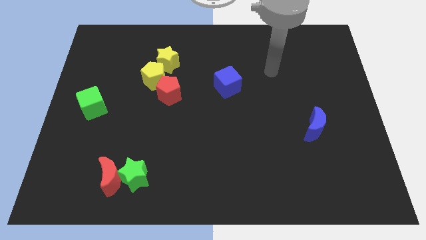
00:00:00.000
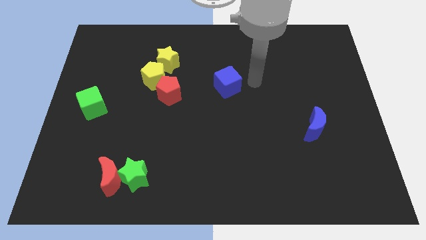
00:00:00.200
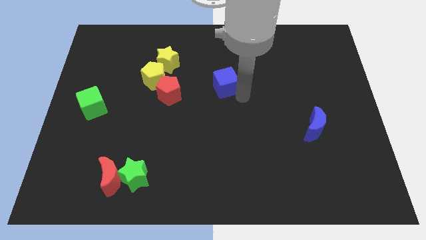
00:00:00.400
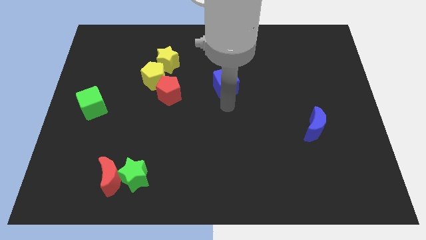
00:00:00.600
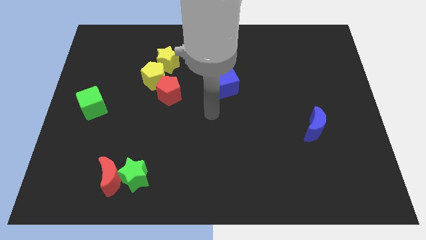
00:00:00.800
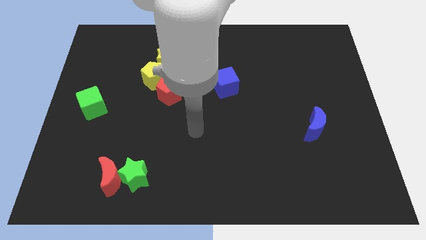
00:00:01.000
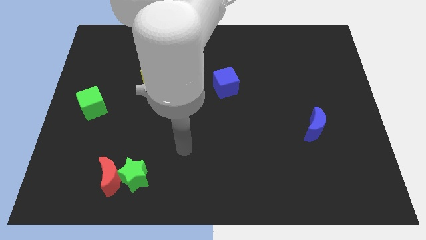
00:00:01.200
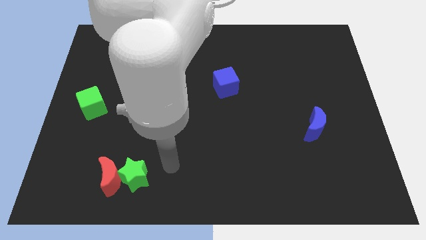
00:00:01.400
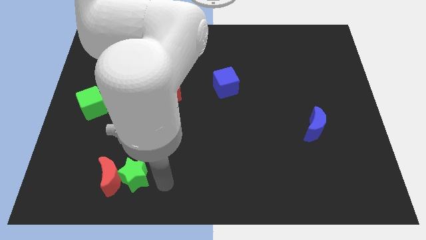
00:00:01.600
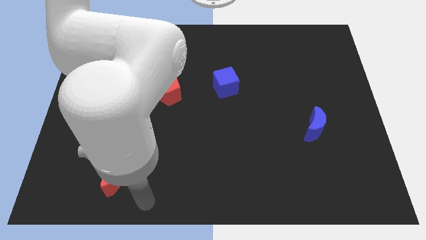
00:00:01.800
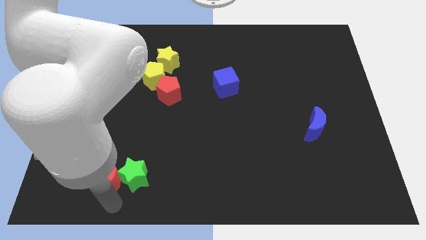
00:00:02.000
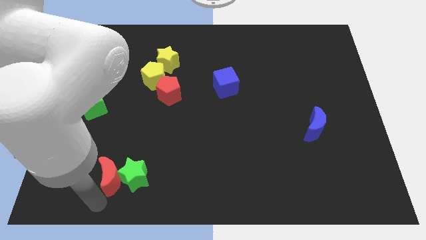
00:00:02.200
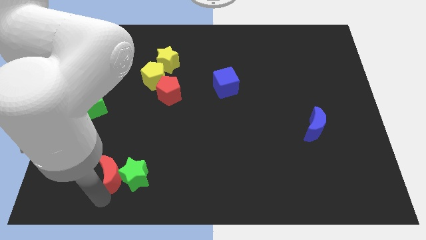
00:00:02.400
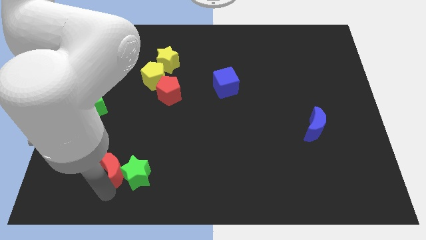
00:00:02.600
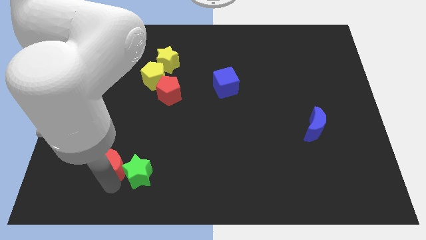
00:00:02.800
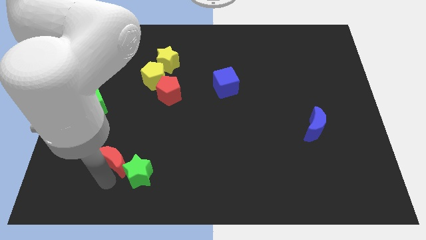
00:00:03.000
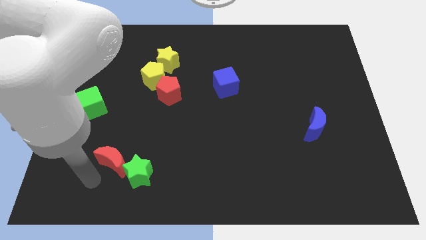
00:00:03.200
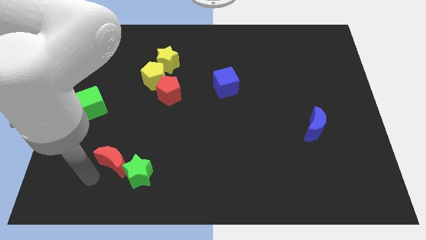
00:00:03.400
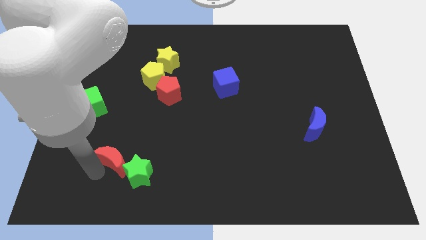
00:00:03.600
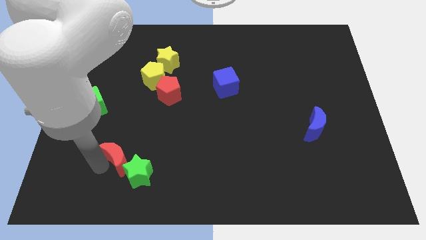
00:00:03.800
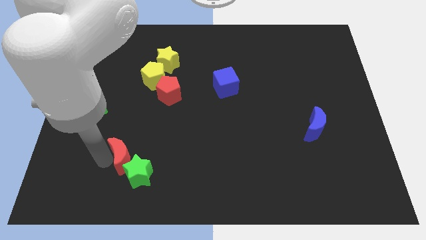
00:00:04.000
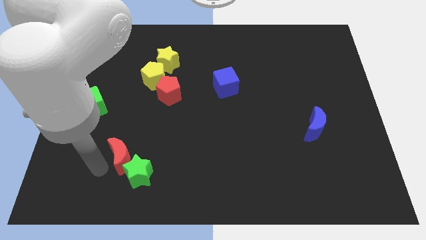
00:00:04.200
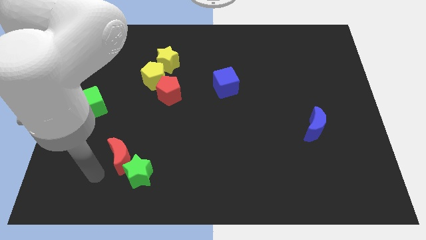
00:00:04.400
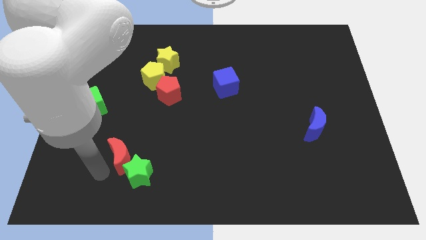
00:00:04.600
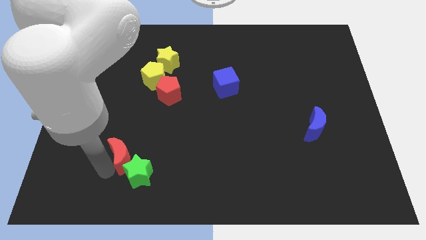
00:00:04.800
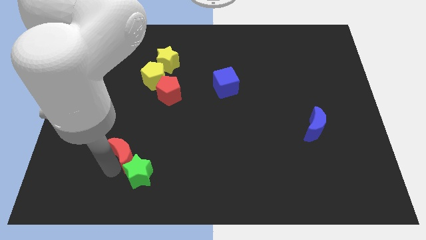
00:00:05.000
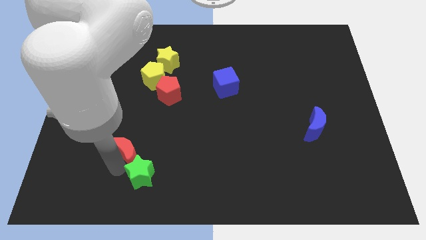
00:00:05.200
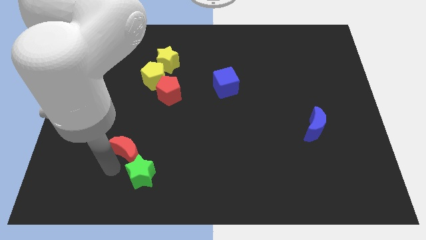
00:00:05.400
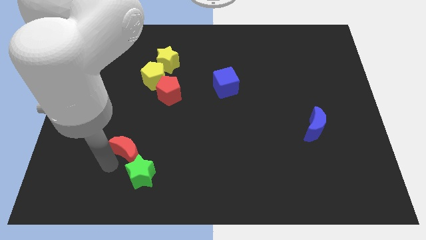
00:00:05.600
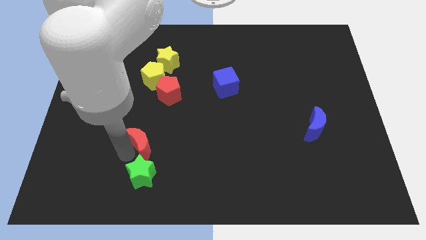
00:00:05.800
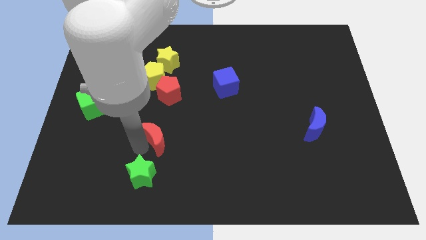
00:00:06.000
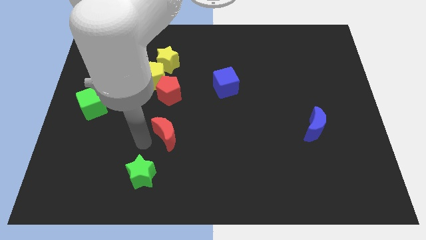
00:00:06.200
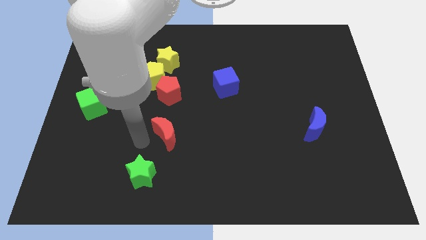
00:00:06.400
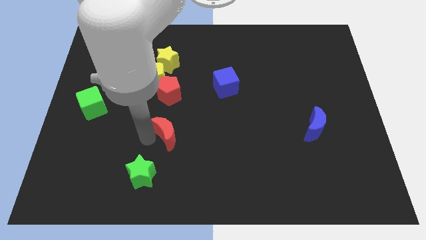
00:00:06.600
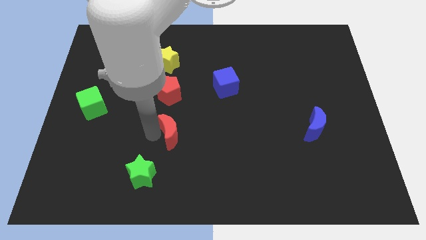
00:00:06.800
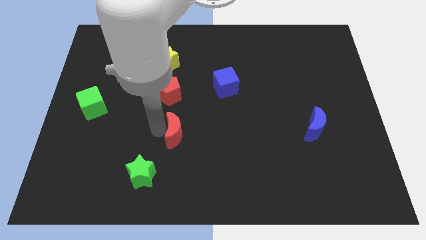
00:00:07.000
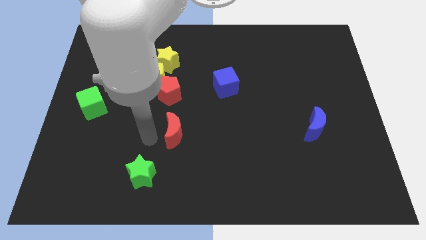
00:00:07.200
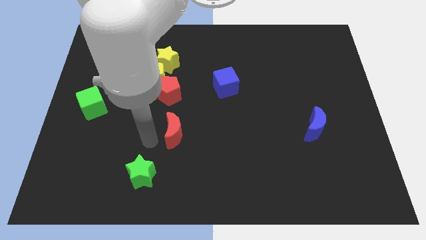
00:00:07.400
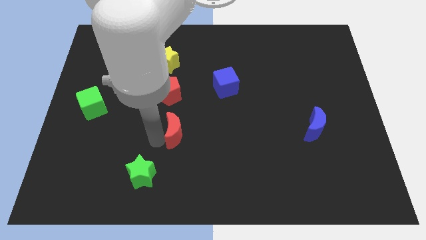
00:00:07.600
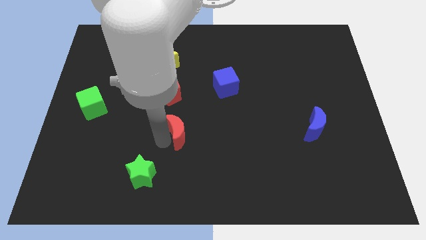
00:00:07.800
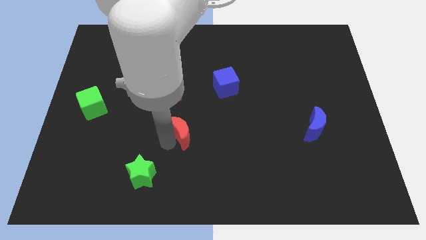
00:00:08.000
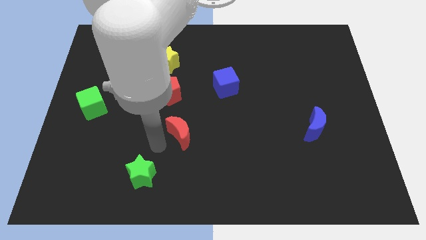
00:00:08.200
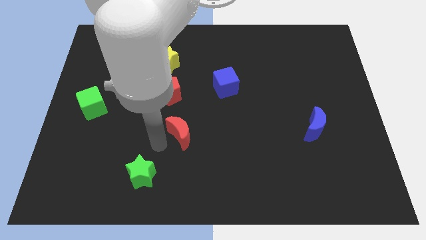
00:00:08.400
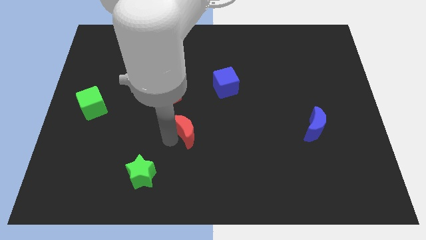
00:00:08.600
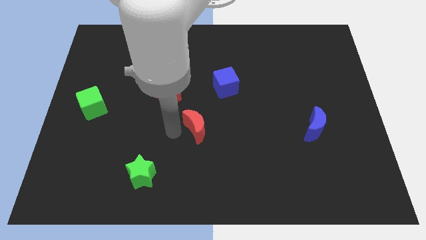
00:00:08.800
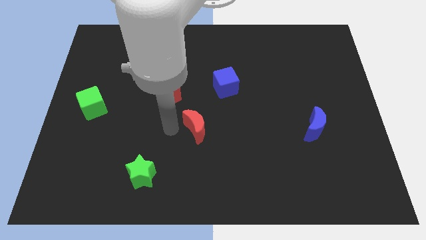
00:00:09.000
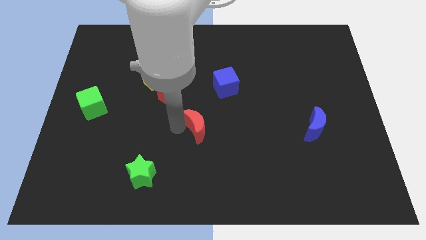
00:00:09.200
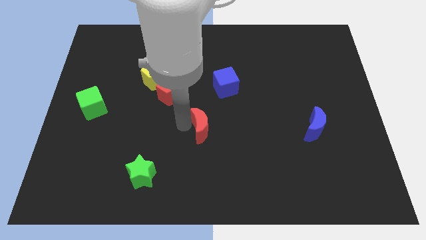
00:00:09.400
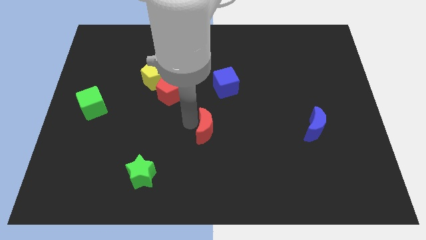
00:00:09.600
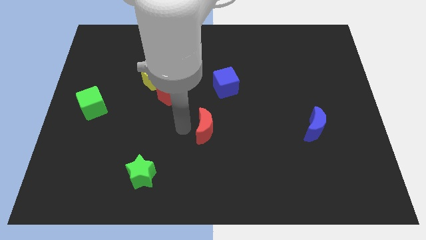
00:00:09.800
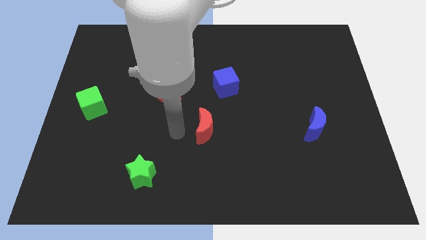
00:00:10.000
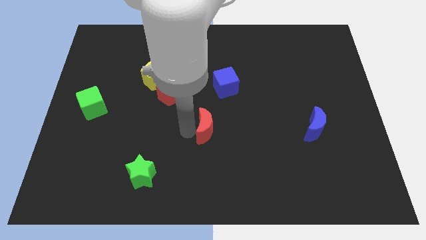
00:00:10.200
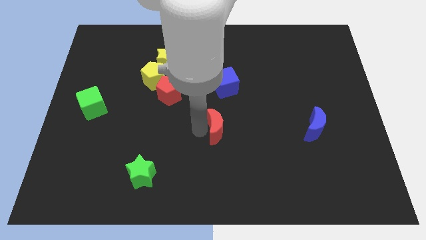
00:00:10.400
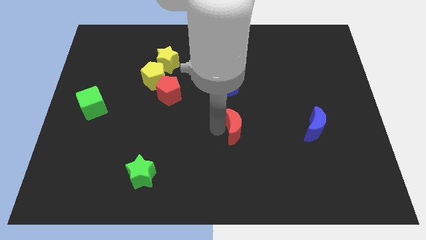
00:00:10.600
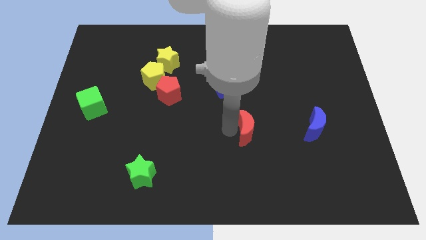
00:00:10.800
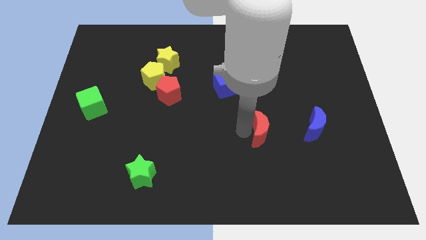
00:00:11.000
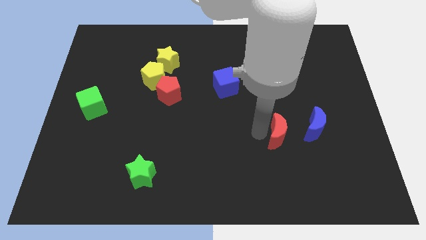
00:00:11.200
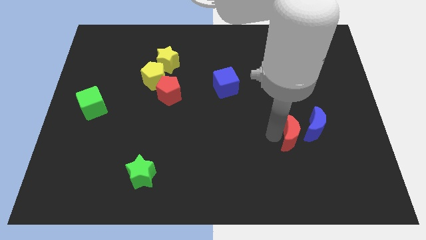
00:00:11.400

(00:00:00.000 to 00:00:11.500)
slide the red moon next to the blue moon

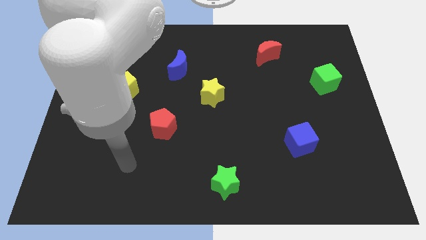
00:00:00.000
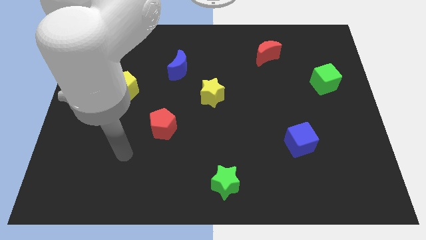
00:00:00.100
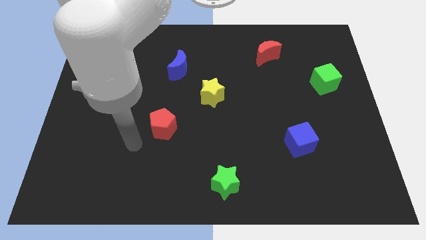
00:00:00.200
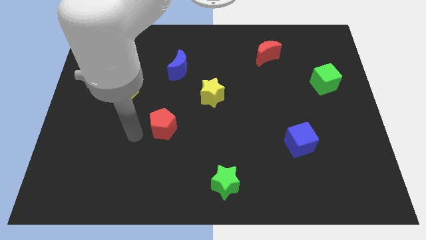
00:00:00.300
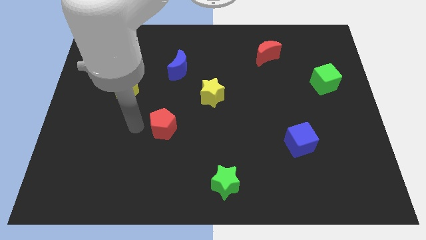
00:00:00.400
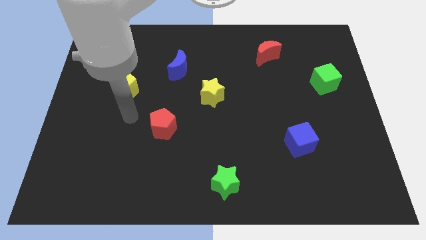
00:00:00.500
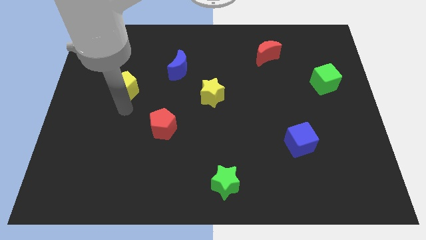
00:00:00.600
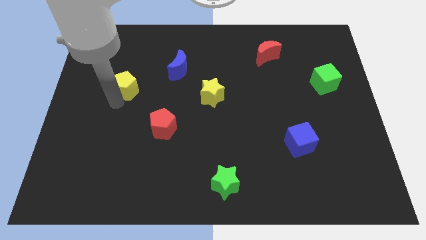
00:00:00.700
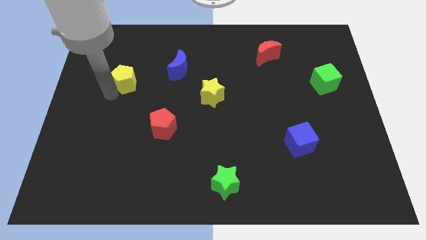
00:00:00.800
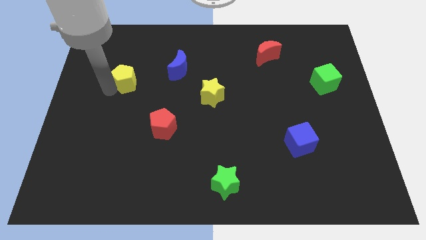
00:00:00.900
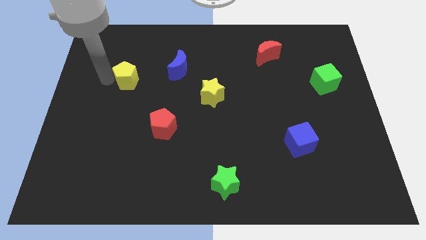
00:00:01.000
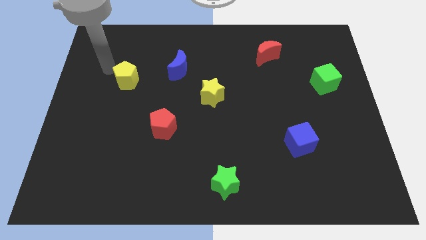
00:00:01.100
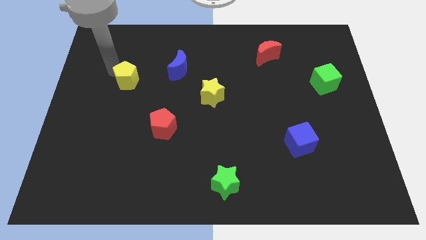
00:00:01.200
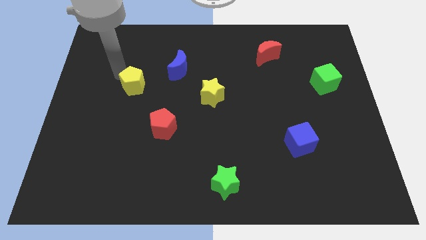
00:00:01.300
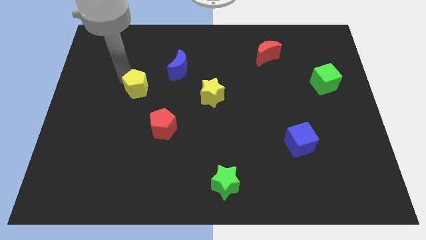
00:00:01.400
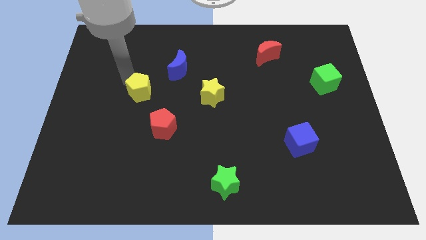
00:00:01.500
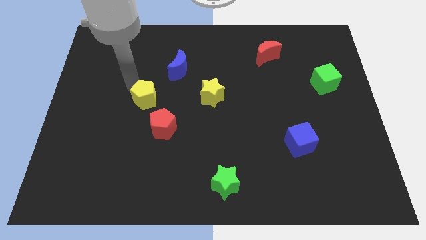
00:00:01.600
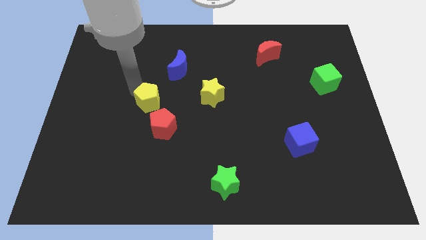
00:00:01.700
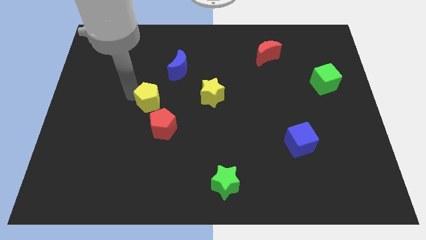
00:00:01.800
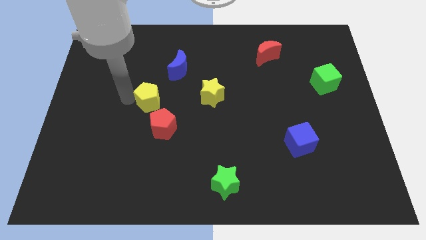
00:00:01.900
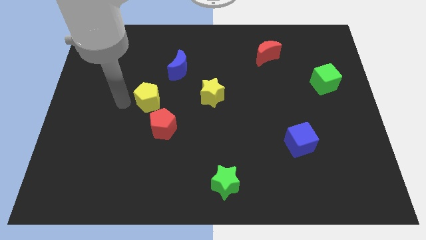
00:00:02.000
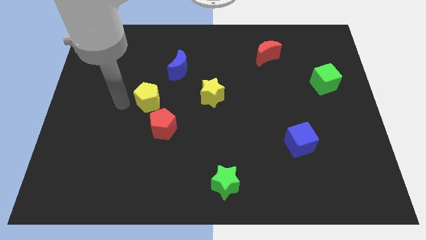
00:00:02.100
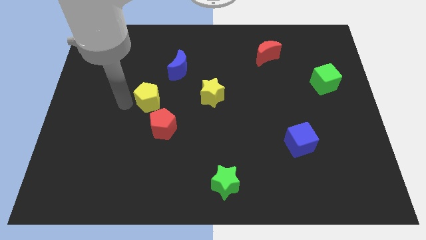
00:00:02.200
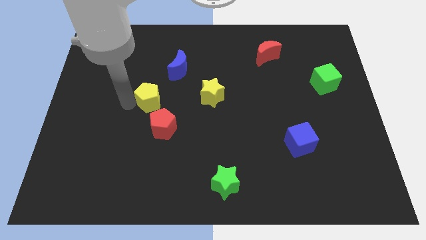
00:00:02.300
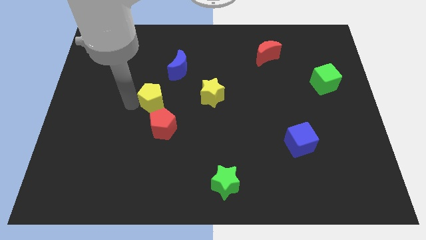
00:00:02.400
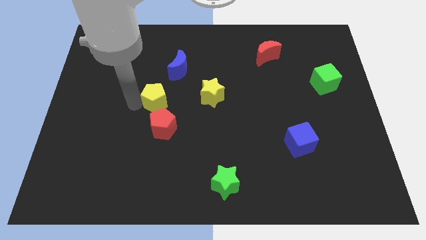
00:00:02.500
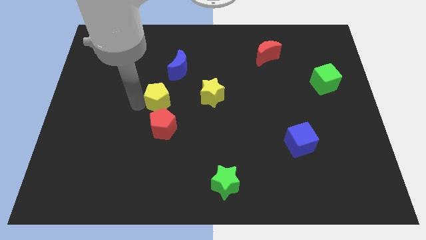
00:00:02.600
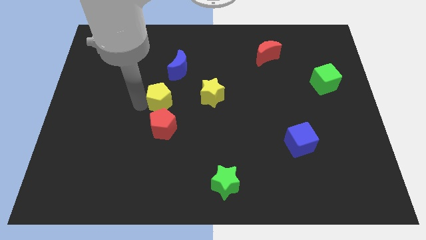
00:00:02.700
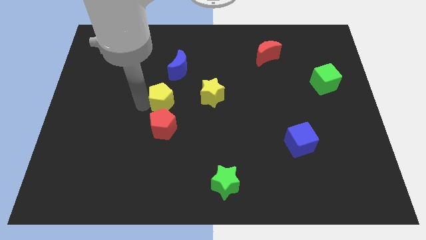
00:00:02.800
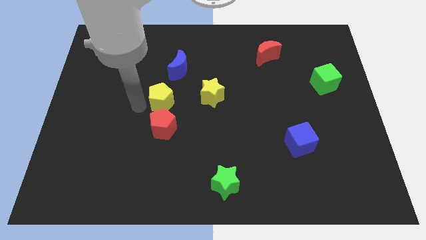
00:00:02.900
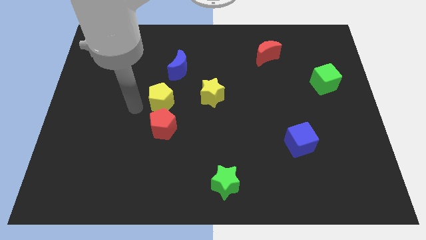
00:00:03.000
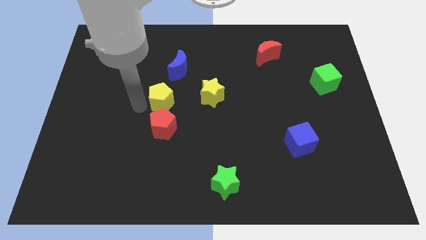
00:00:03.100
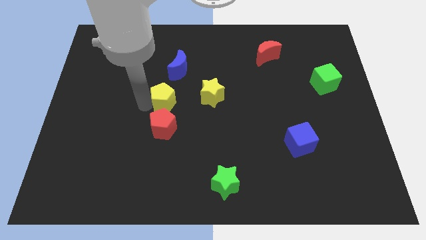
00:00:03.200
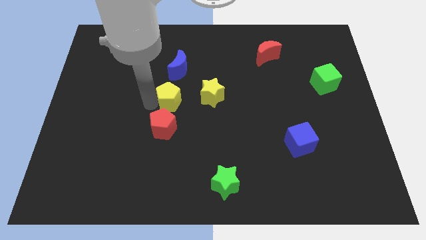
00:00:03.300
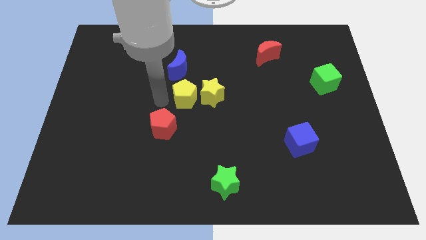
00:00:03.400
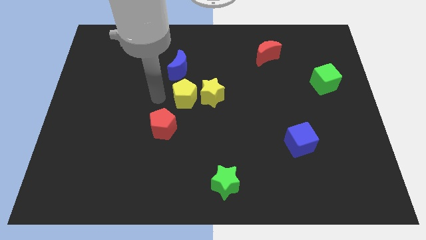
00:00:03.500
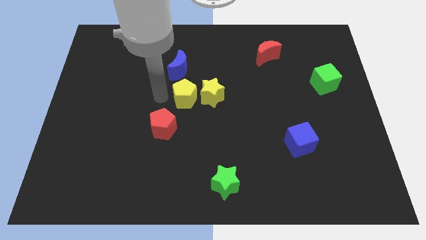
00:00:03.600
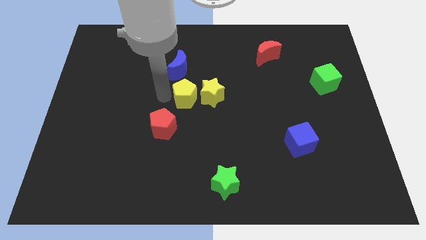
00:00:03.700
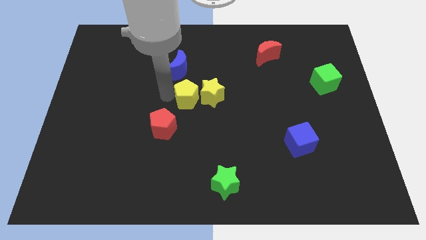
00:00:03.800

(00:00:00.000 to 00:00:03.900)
slide the yellow pentagon close to the yellow star
